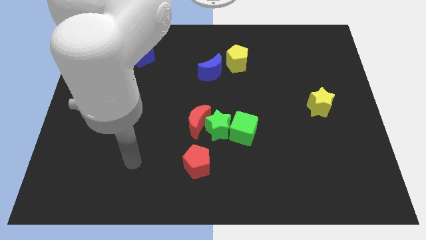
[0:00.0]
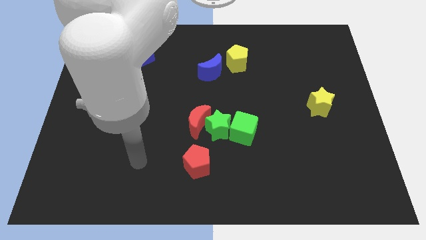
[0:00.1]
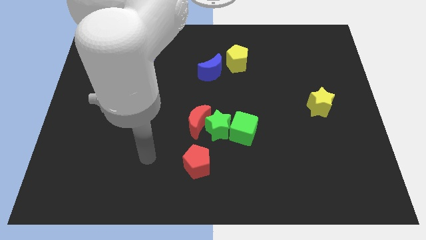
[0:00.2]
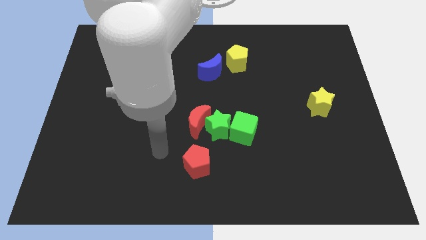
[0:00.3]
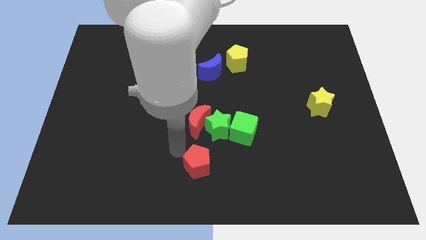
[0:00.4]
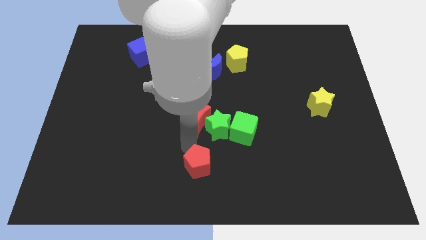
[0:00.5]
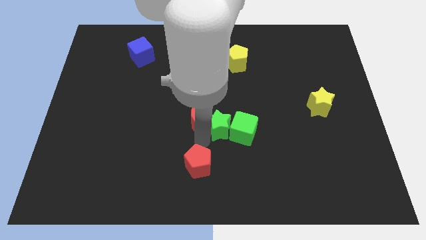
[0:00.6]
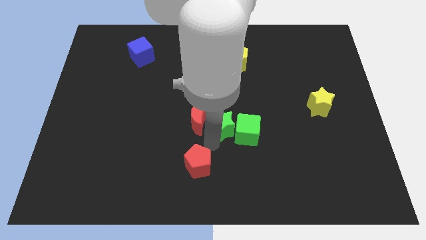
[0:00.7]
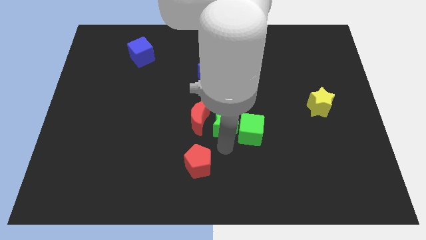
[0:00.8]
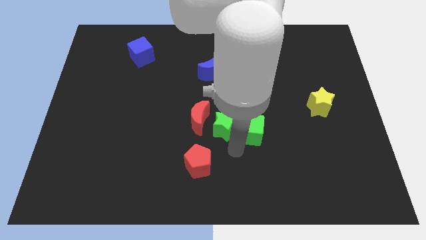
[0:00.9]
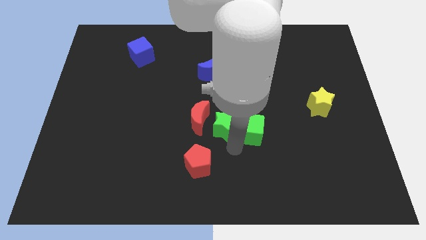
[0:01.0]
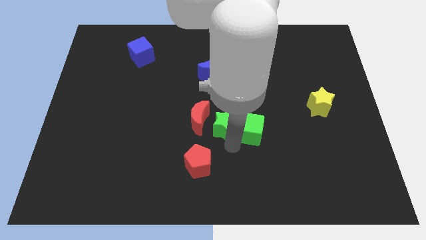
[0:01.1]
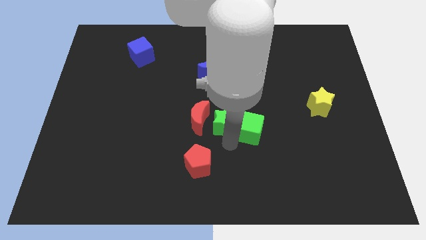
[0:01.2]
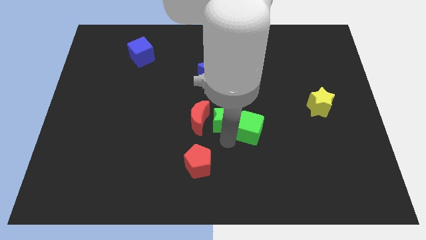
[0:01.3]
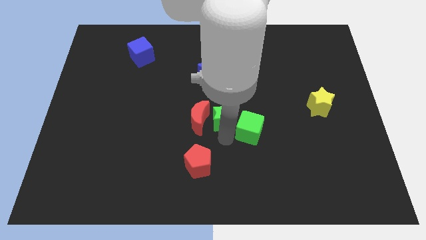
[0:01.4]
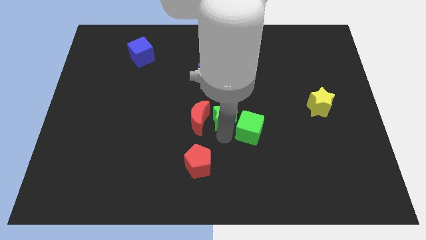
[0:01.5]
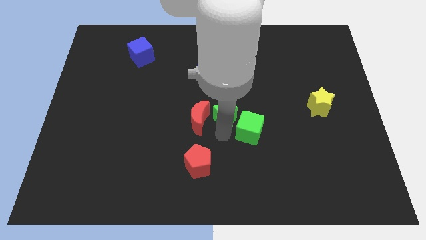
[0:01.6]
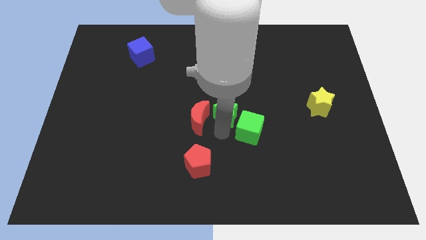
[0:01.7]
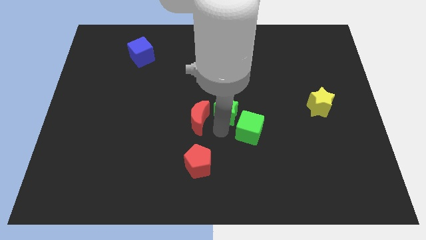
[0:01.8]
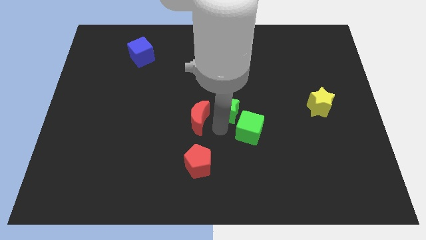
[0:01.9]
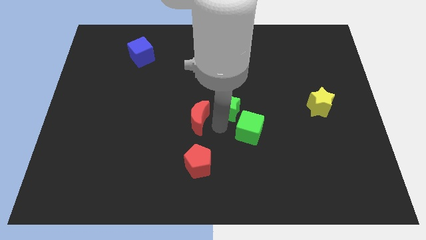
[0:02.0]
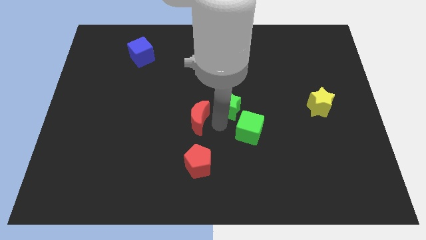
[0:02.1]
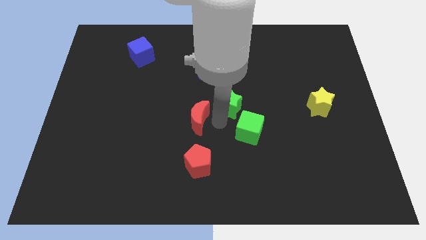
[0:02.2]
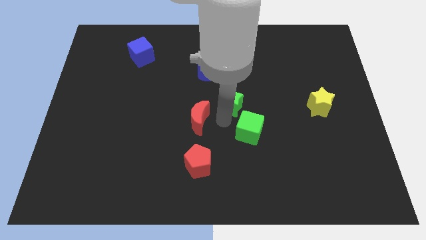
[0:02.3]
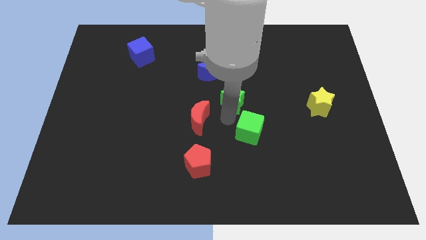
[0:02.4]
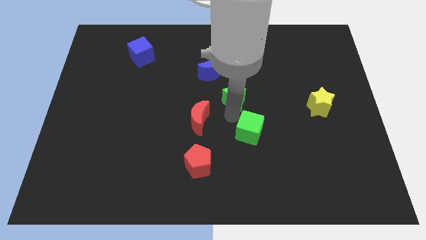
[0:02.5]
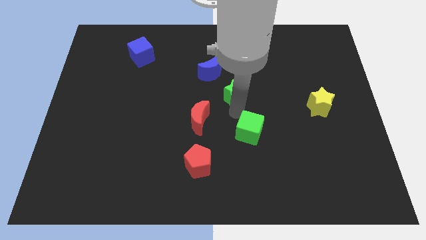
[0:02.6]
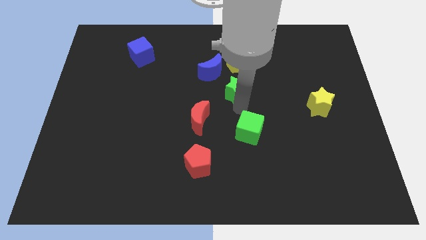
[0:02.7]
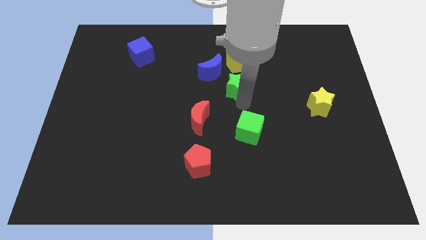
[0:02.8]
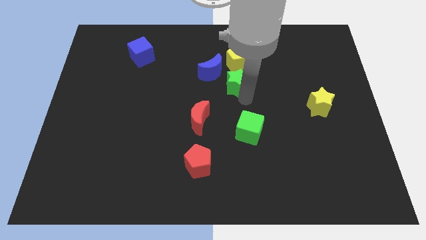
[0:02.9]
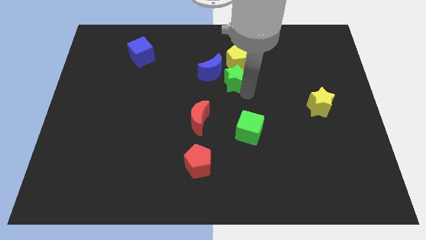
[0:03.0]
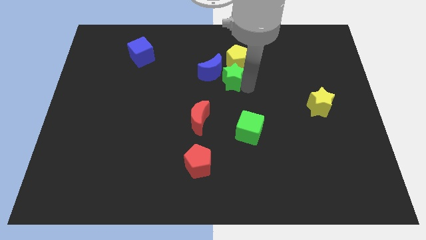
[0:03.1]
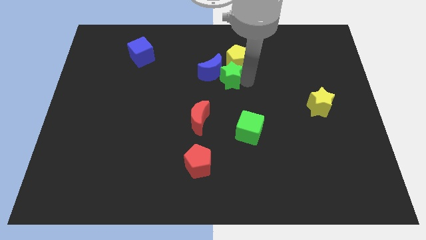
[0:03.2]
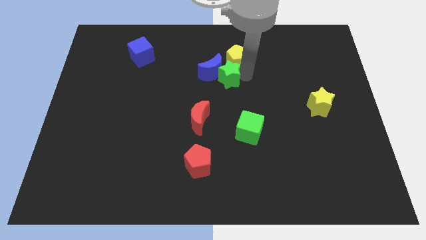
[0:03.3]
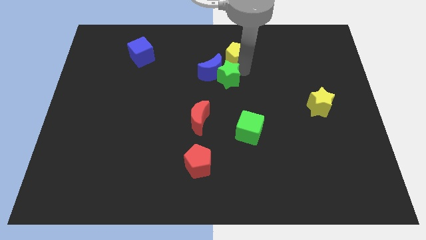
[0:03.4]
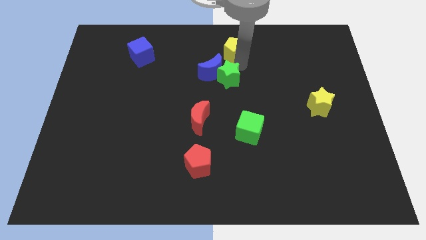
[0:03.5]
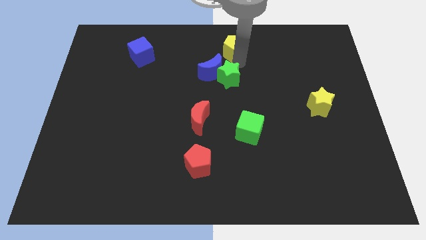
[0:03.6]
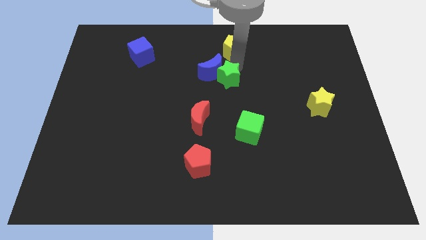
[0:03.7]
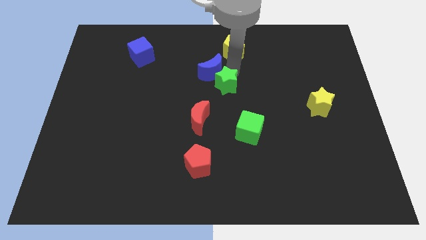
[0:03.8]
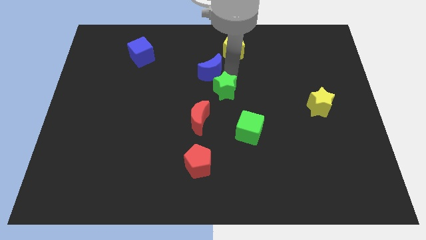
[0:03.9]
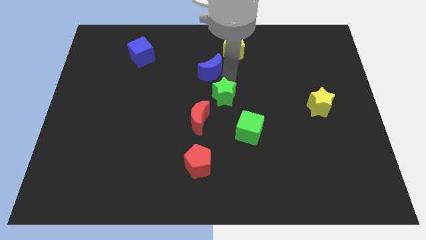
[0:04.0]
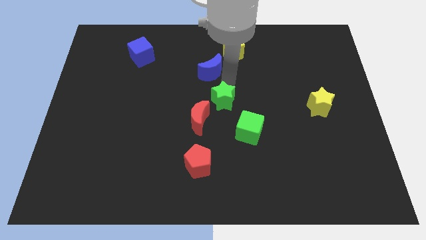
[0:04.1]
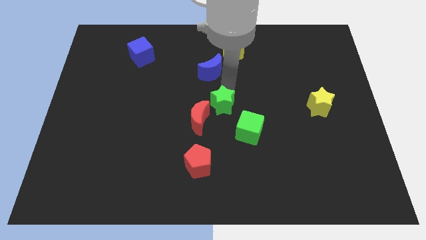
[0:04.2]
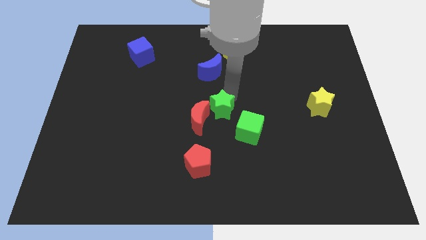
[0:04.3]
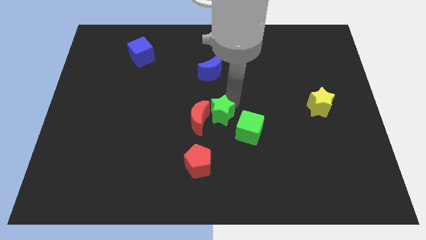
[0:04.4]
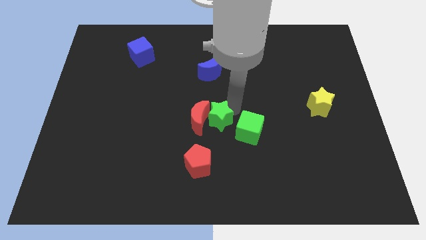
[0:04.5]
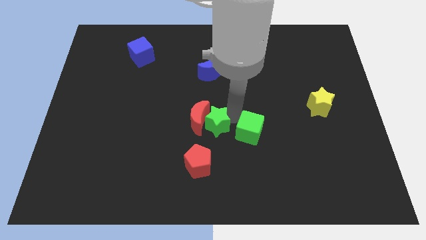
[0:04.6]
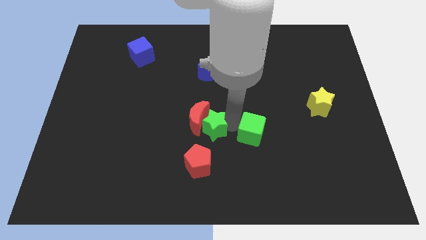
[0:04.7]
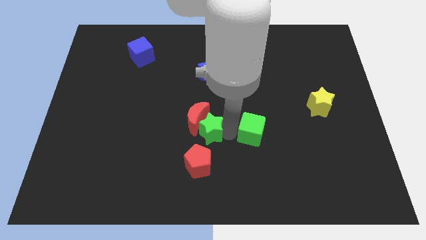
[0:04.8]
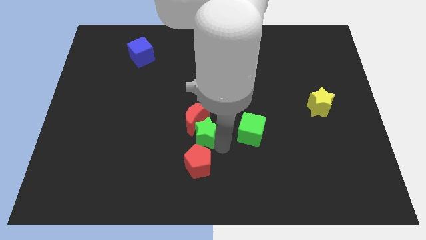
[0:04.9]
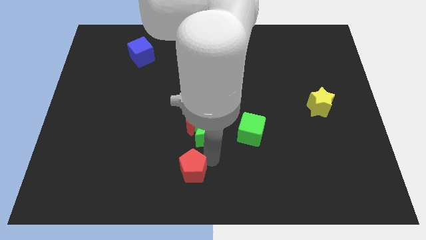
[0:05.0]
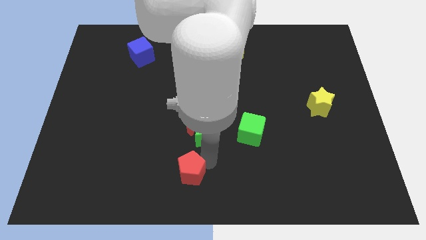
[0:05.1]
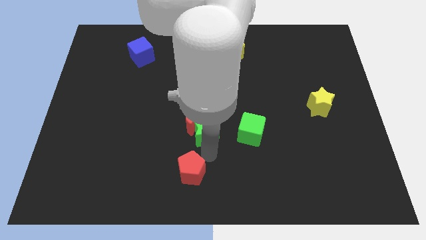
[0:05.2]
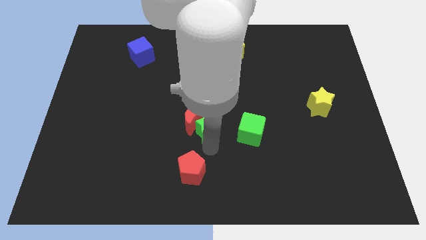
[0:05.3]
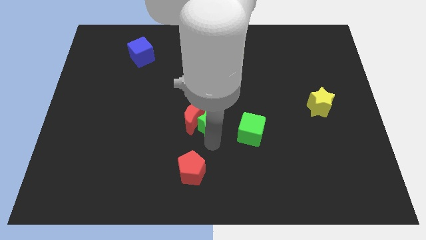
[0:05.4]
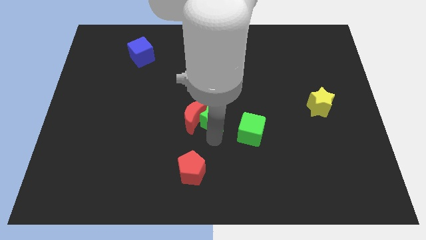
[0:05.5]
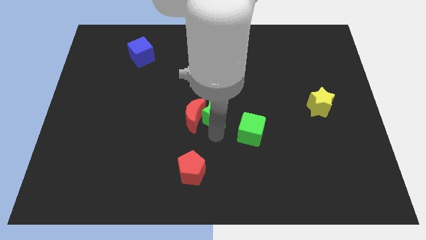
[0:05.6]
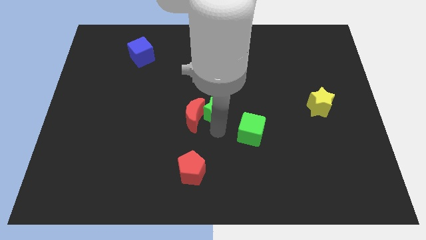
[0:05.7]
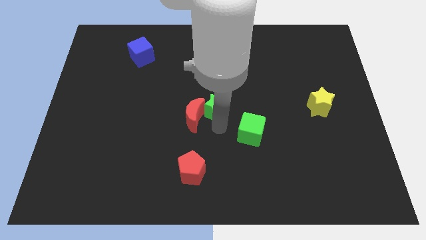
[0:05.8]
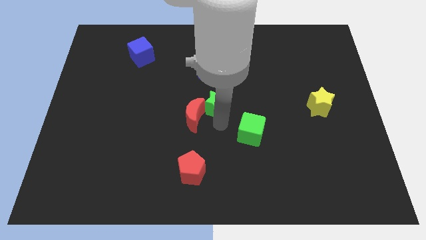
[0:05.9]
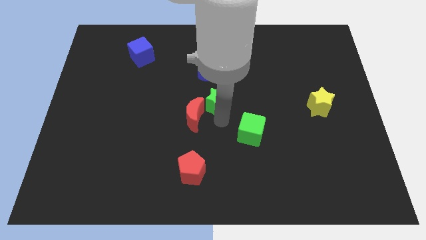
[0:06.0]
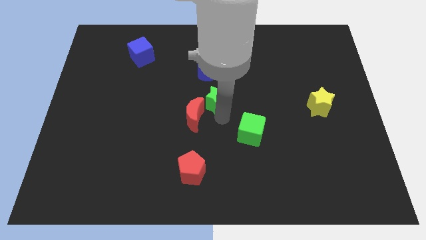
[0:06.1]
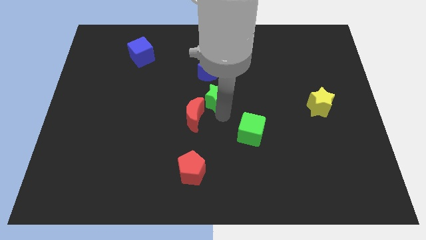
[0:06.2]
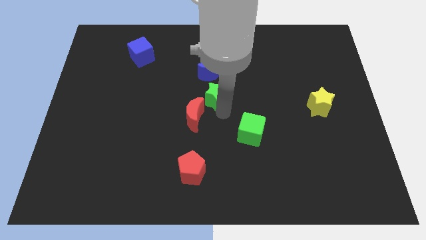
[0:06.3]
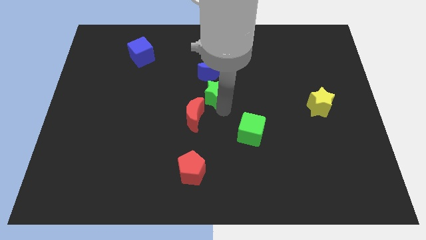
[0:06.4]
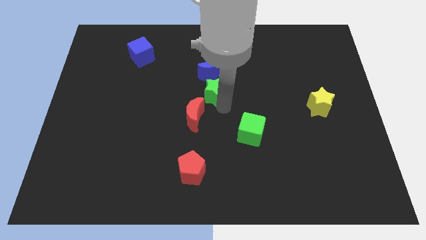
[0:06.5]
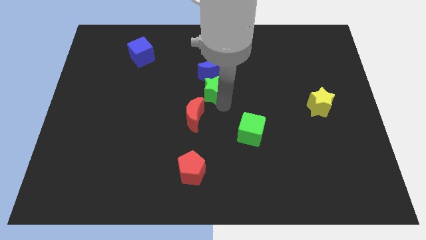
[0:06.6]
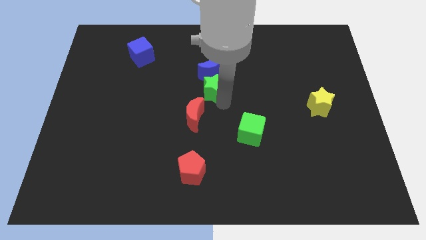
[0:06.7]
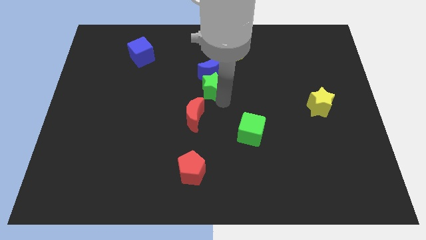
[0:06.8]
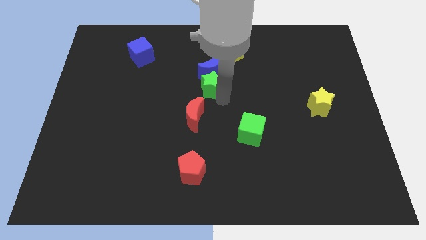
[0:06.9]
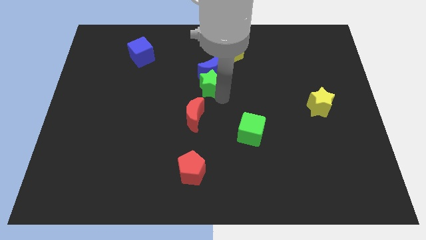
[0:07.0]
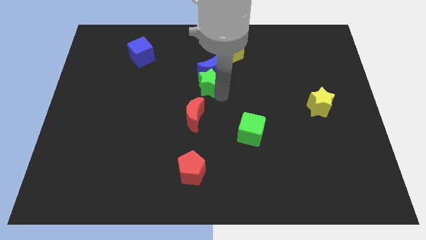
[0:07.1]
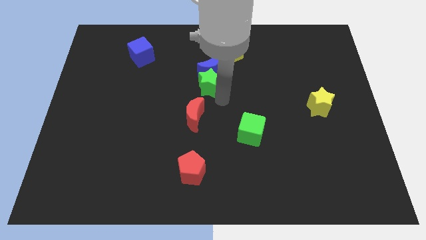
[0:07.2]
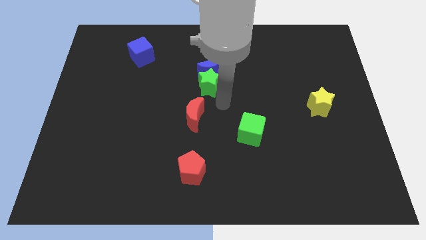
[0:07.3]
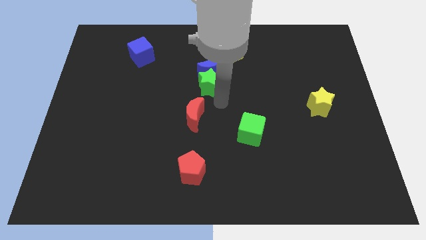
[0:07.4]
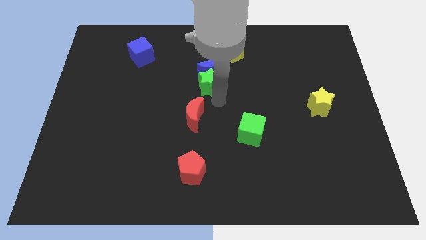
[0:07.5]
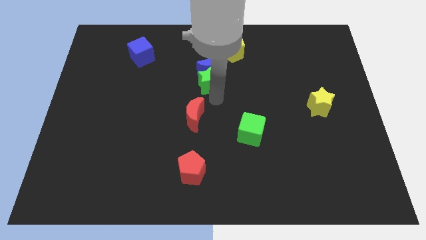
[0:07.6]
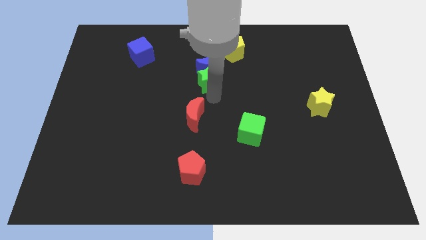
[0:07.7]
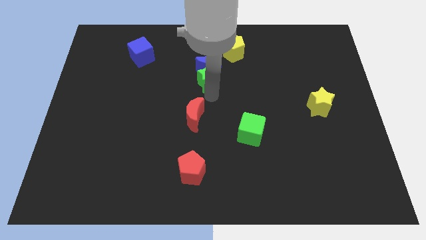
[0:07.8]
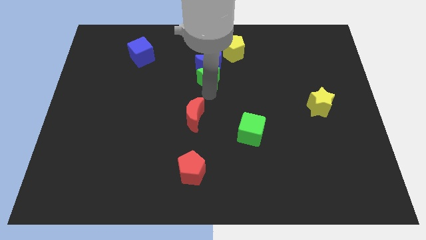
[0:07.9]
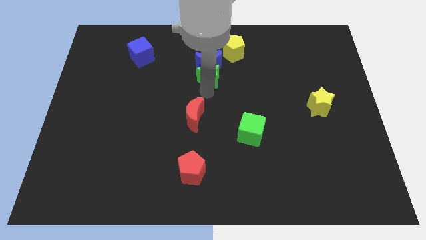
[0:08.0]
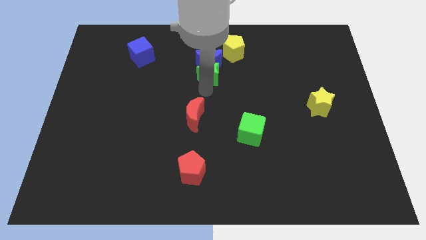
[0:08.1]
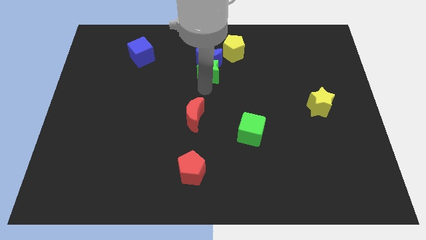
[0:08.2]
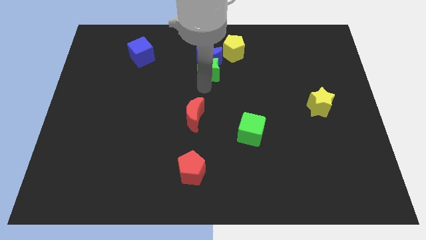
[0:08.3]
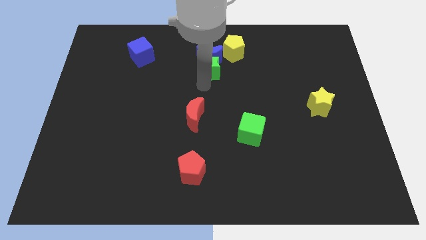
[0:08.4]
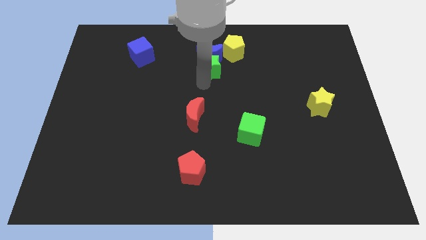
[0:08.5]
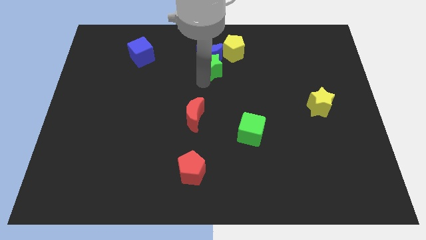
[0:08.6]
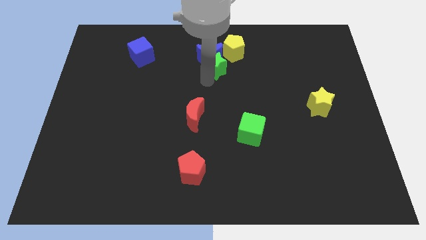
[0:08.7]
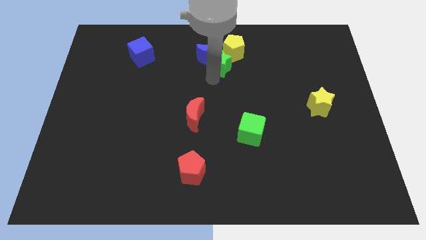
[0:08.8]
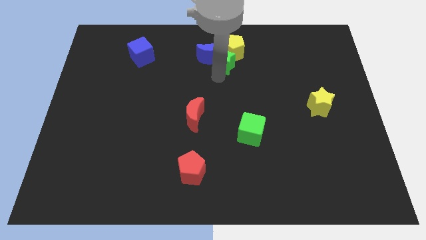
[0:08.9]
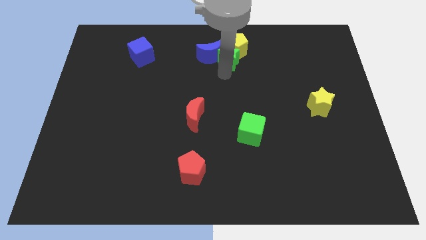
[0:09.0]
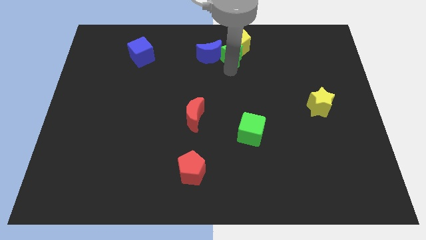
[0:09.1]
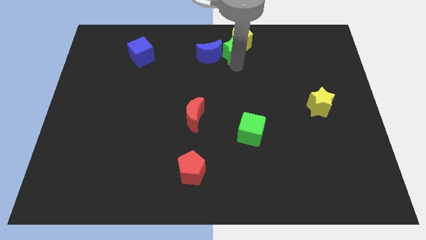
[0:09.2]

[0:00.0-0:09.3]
push the green star to the towards your base
